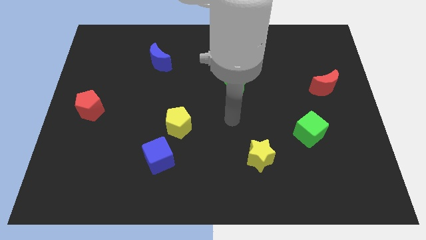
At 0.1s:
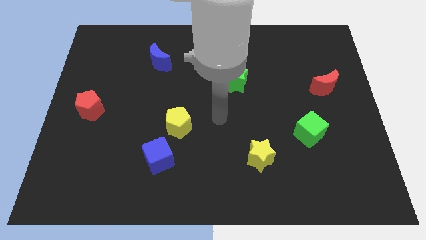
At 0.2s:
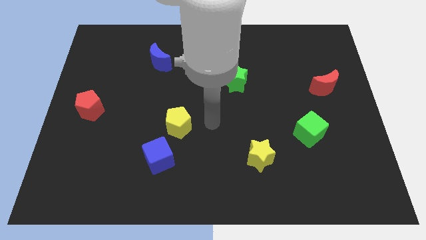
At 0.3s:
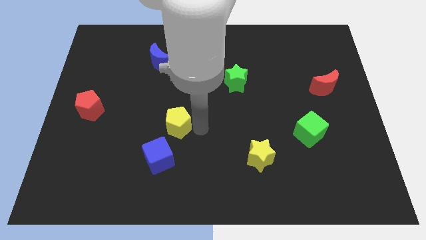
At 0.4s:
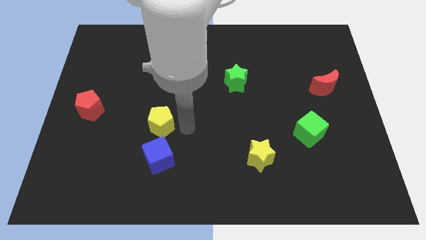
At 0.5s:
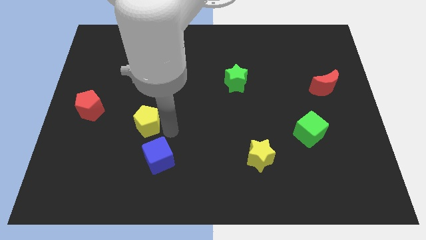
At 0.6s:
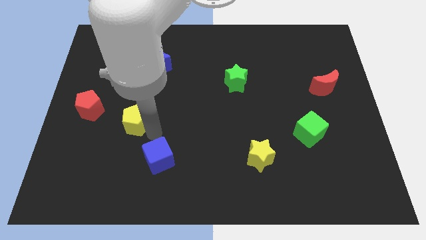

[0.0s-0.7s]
separate the blue cube from the yellow pentagon

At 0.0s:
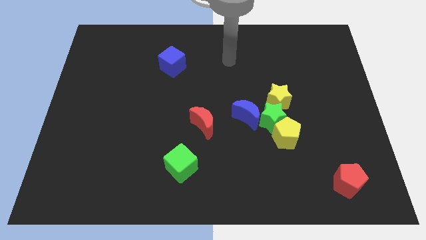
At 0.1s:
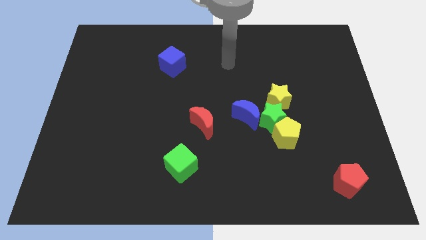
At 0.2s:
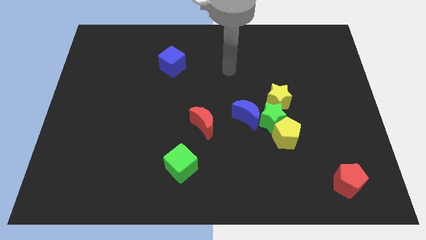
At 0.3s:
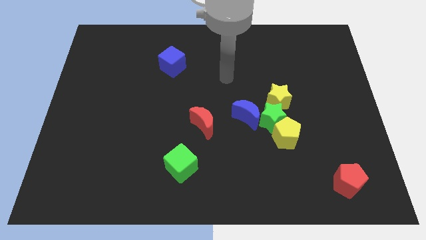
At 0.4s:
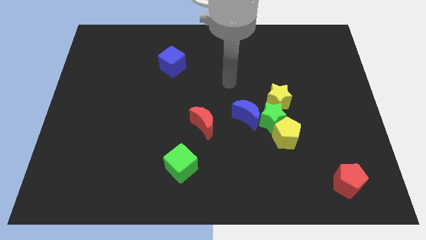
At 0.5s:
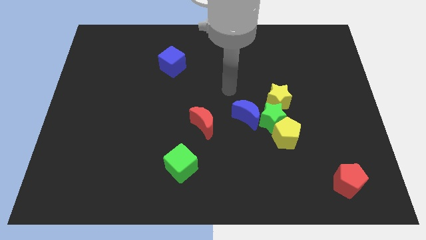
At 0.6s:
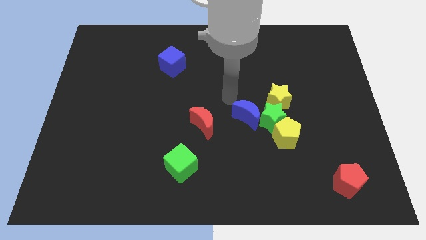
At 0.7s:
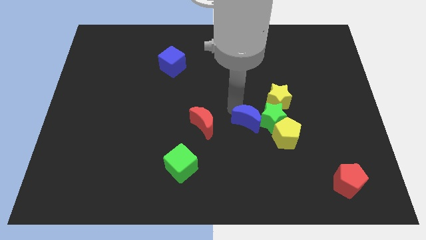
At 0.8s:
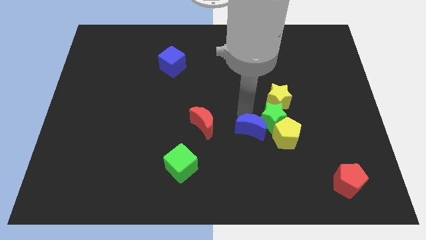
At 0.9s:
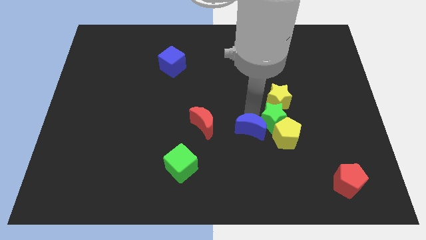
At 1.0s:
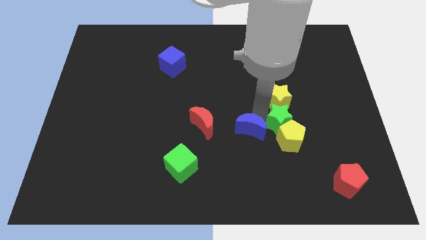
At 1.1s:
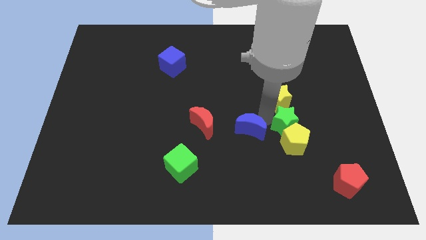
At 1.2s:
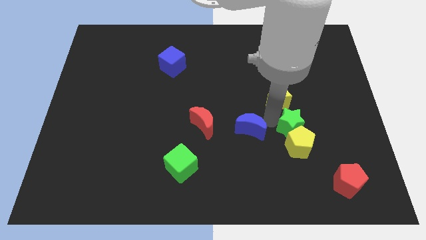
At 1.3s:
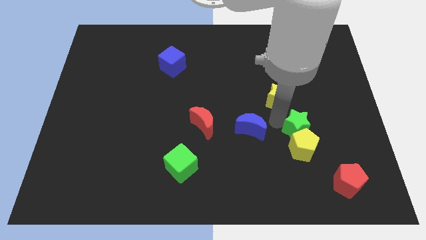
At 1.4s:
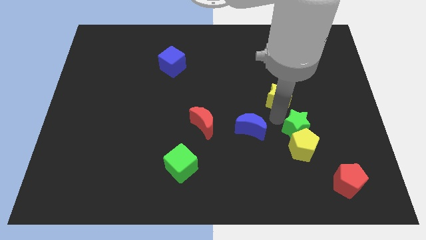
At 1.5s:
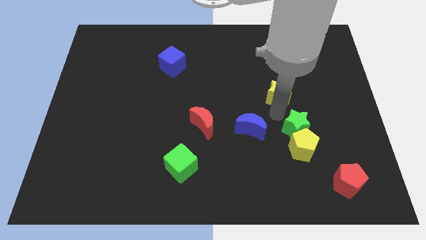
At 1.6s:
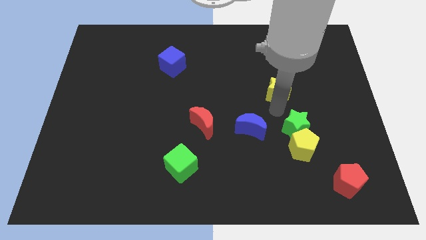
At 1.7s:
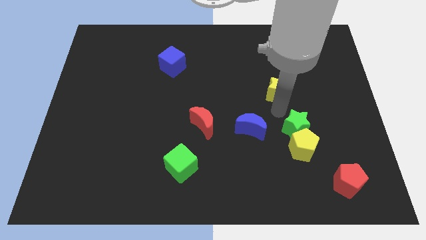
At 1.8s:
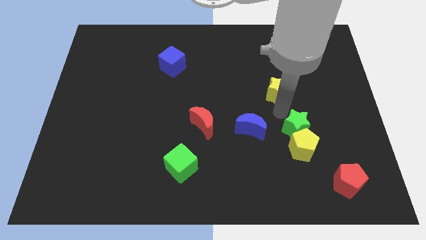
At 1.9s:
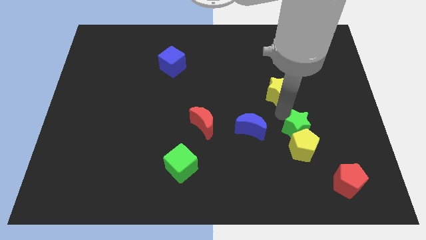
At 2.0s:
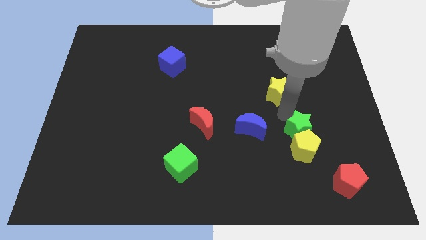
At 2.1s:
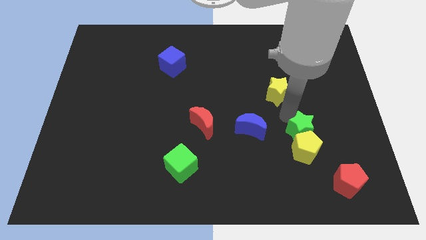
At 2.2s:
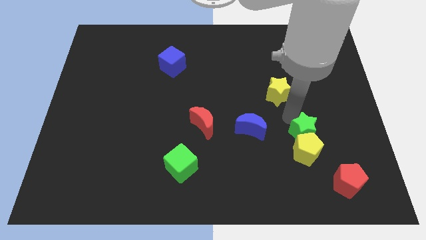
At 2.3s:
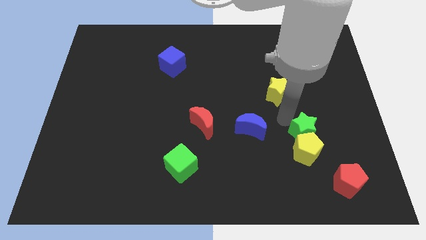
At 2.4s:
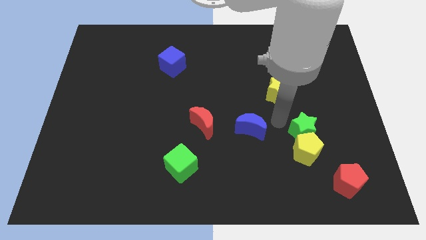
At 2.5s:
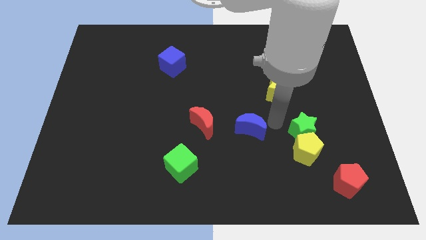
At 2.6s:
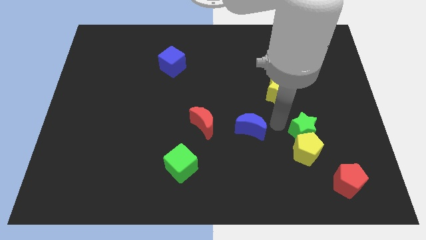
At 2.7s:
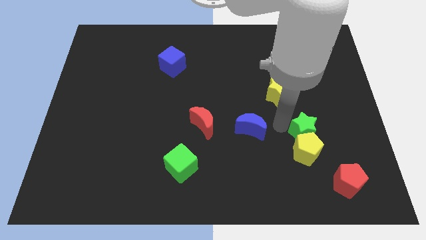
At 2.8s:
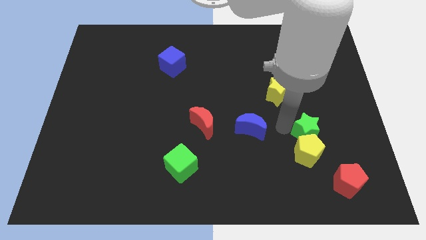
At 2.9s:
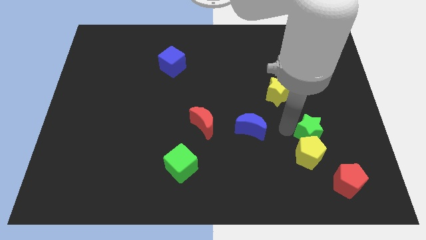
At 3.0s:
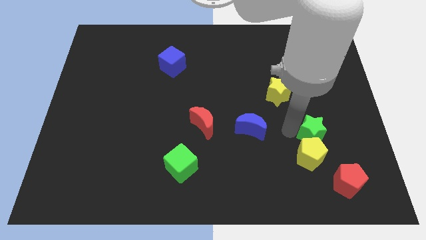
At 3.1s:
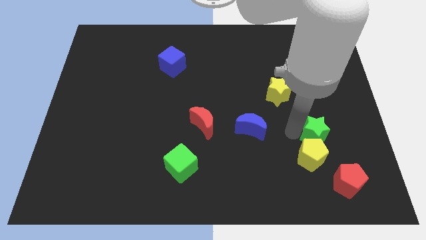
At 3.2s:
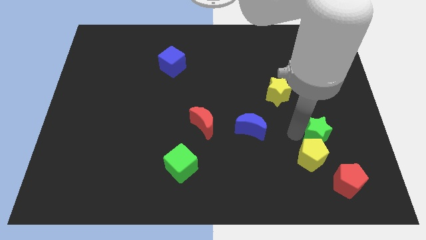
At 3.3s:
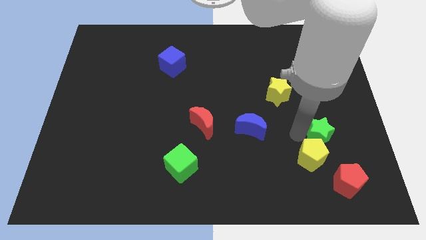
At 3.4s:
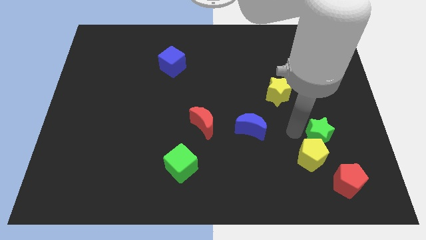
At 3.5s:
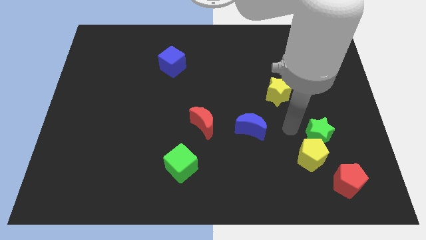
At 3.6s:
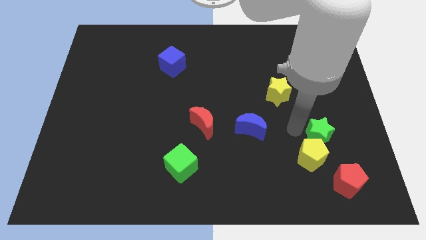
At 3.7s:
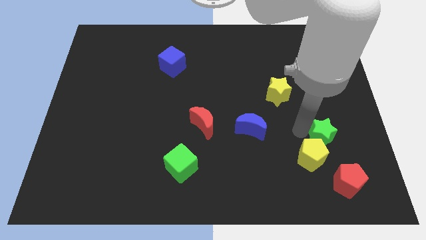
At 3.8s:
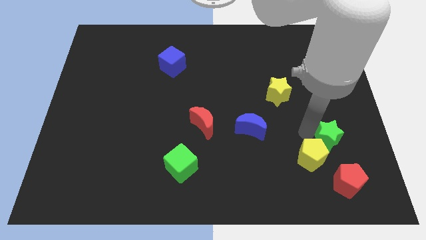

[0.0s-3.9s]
pull the green star apart from the yellow pentagon, yellow star, and blue moon

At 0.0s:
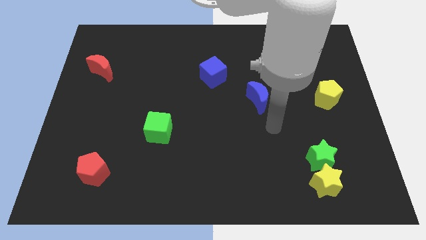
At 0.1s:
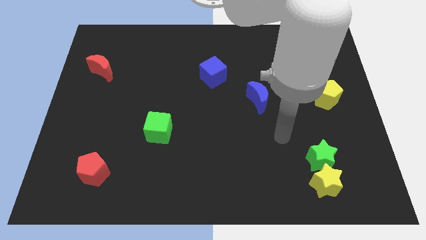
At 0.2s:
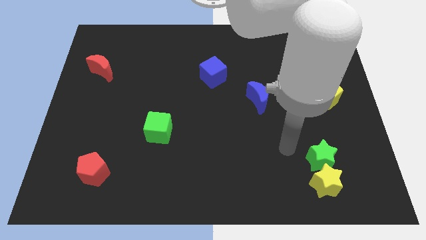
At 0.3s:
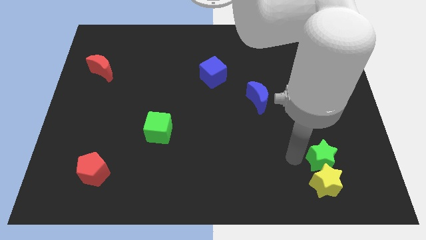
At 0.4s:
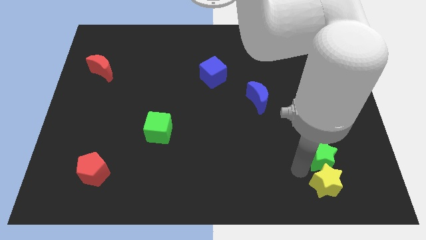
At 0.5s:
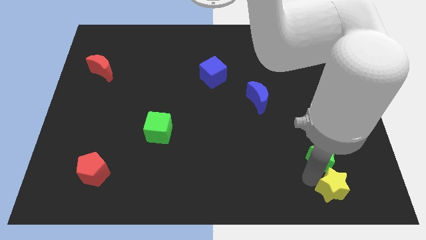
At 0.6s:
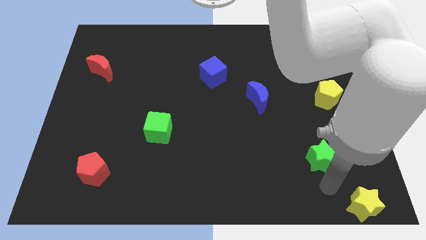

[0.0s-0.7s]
separate the green star from the yellow star

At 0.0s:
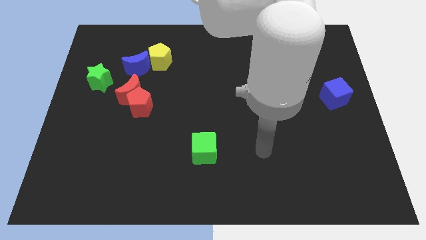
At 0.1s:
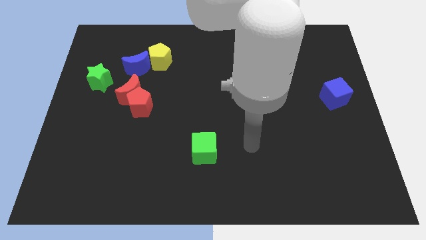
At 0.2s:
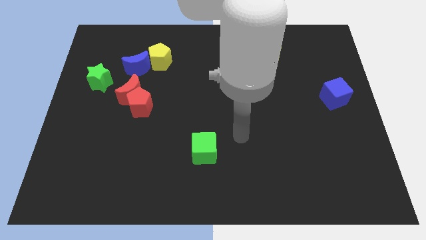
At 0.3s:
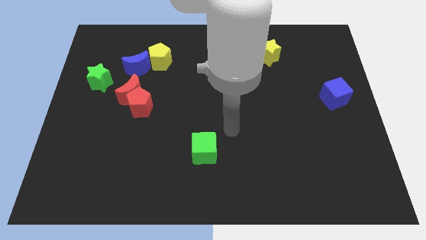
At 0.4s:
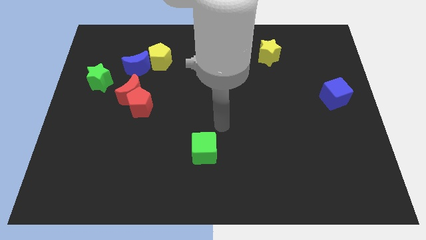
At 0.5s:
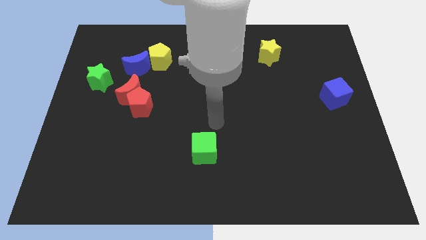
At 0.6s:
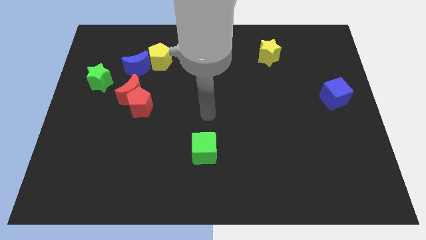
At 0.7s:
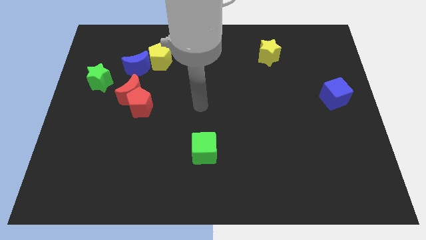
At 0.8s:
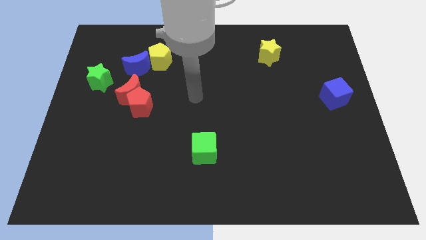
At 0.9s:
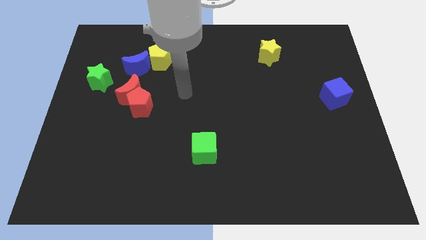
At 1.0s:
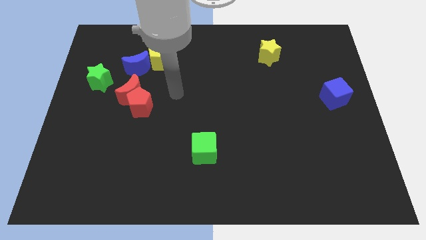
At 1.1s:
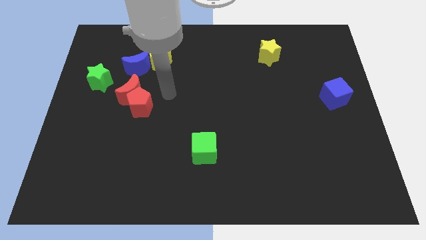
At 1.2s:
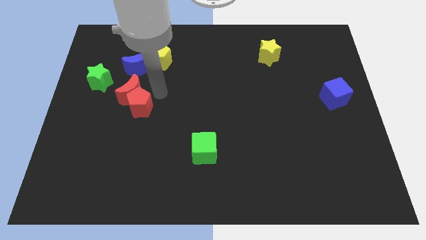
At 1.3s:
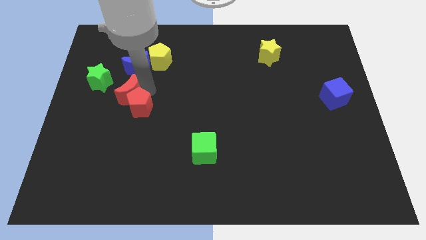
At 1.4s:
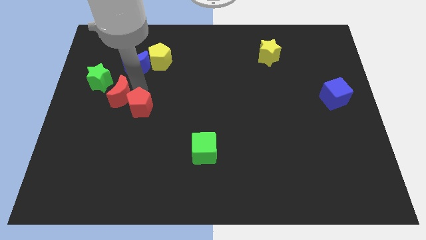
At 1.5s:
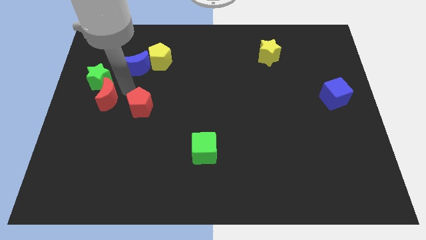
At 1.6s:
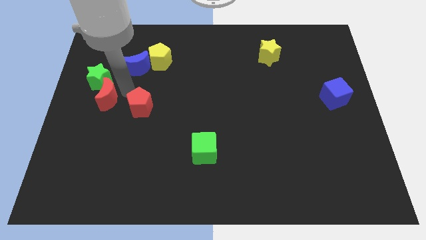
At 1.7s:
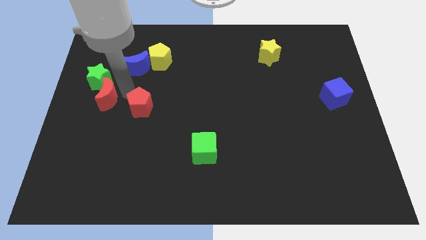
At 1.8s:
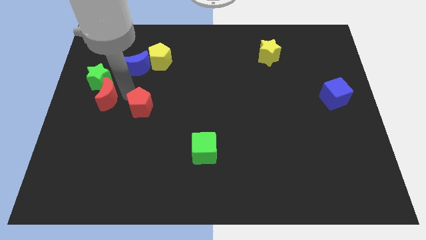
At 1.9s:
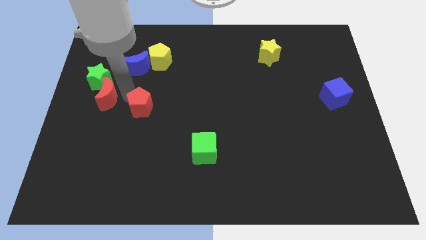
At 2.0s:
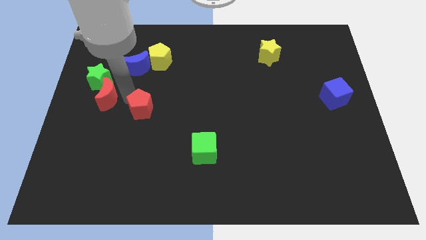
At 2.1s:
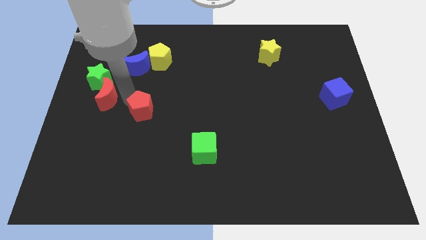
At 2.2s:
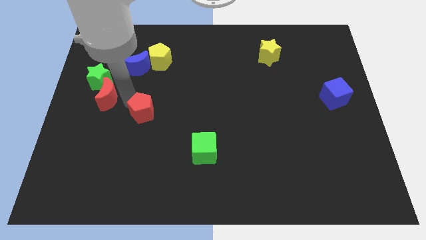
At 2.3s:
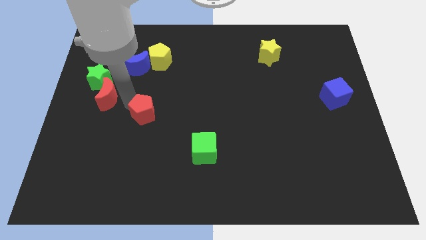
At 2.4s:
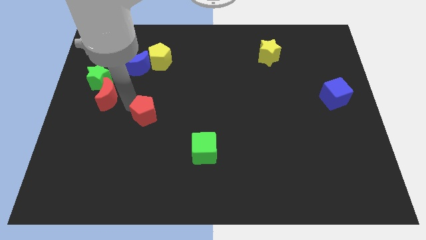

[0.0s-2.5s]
move the red pentagon away from the red moon

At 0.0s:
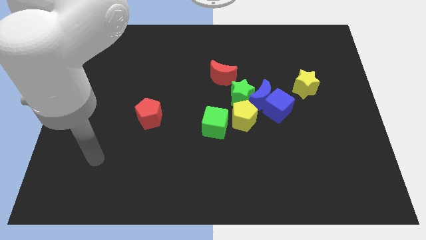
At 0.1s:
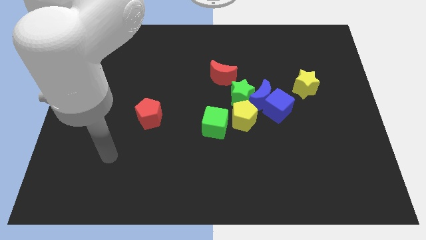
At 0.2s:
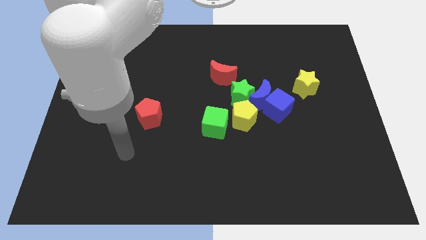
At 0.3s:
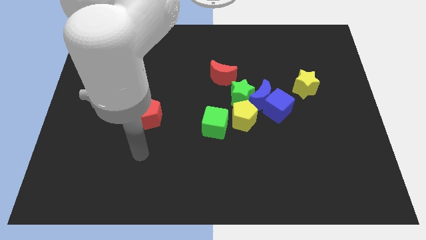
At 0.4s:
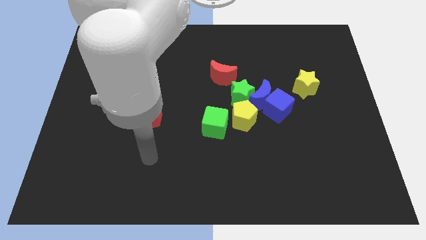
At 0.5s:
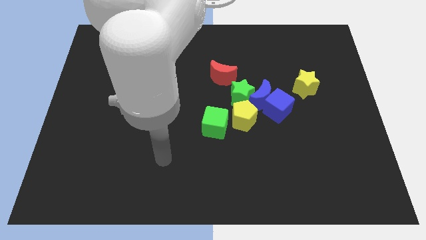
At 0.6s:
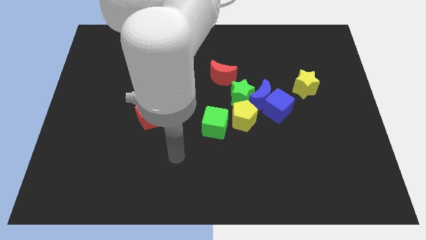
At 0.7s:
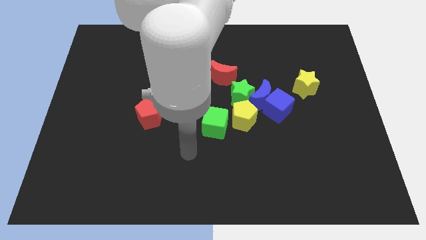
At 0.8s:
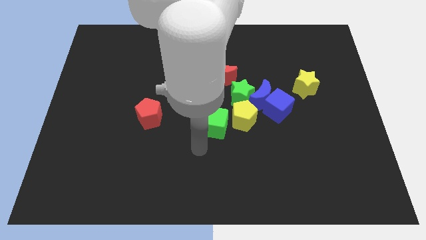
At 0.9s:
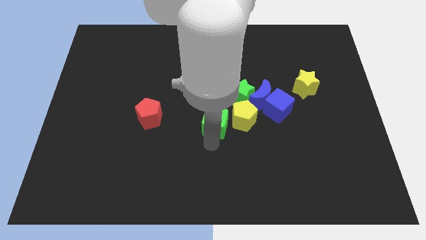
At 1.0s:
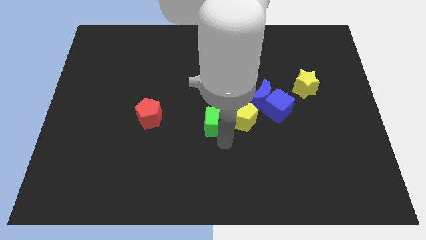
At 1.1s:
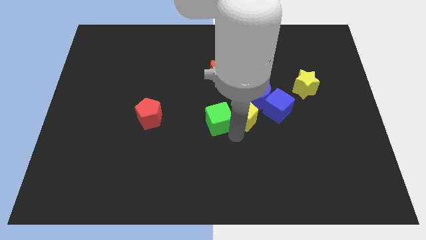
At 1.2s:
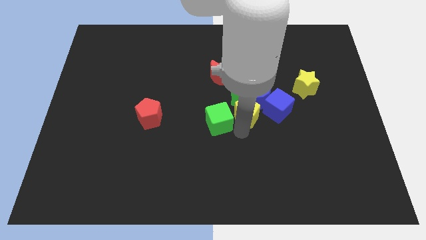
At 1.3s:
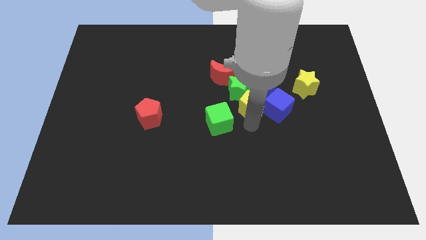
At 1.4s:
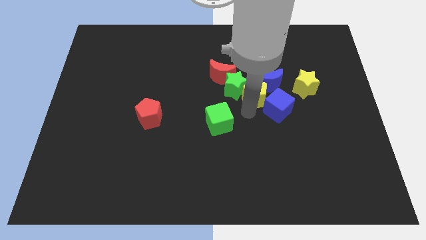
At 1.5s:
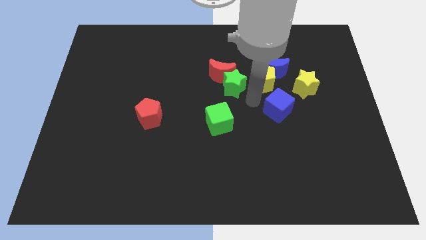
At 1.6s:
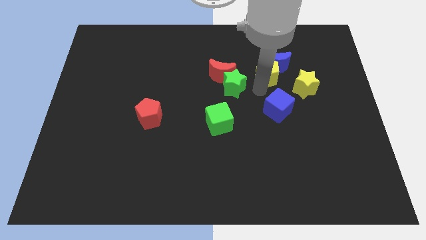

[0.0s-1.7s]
pull the blue moon apart from the group of blocks

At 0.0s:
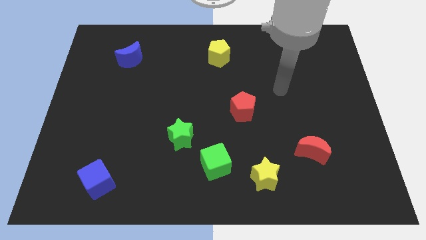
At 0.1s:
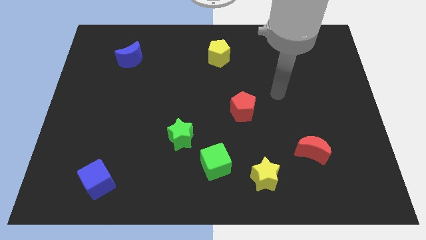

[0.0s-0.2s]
move the green cube away from the green star
